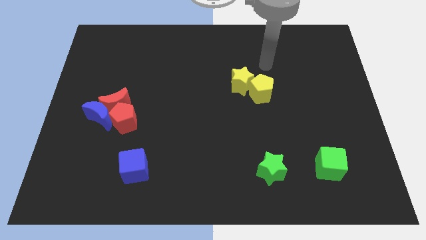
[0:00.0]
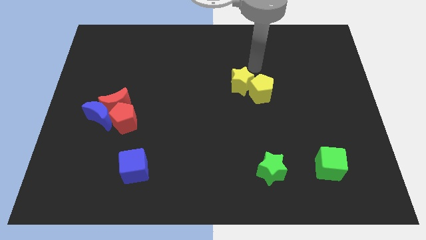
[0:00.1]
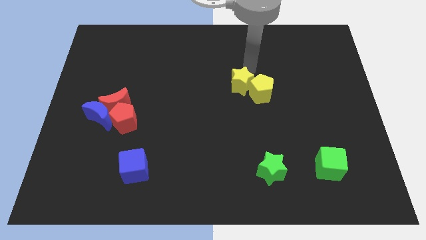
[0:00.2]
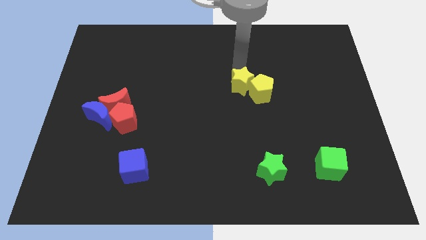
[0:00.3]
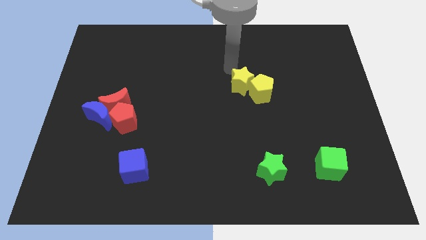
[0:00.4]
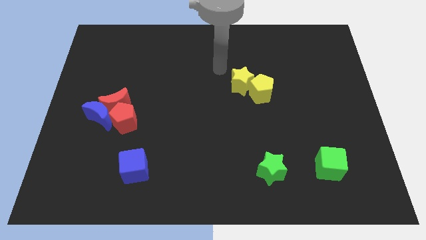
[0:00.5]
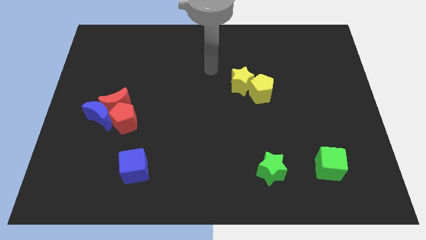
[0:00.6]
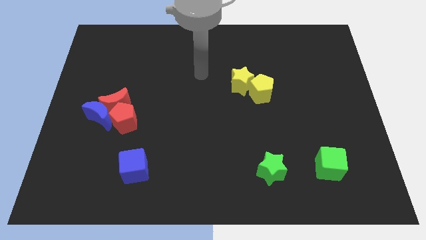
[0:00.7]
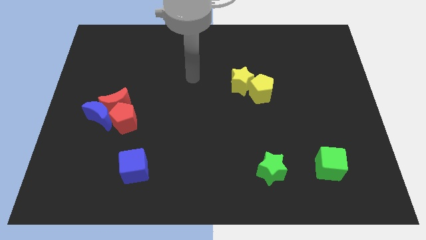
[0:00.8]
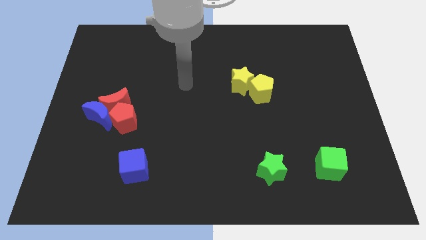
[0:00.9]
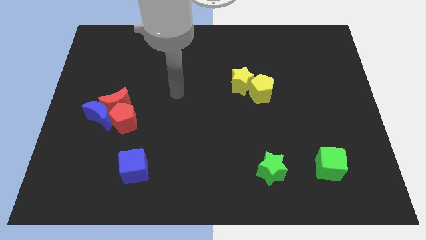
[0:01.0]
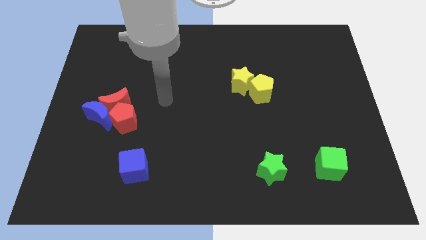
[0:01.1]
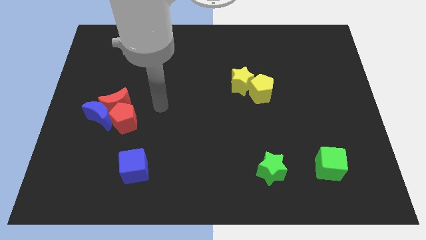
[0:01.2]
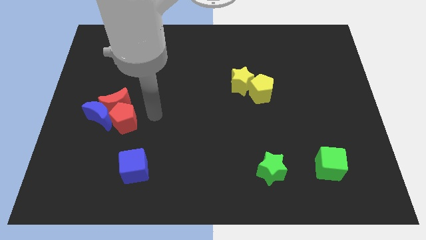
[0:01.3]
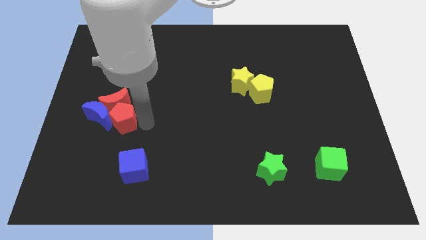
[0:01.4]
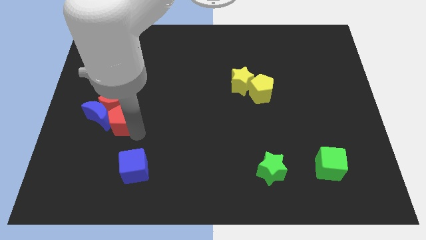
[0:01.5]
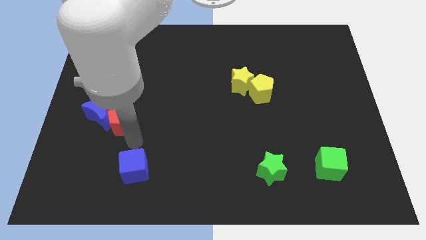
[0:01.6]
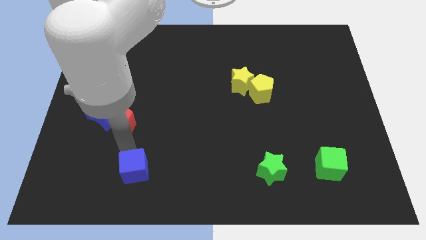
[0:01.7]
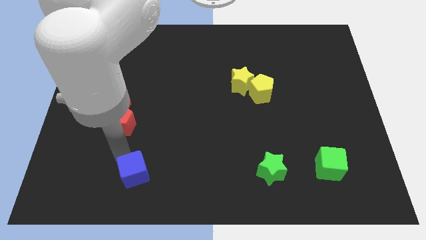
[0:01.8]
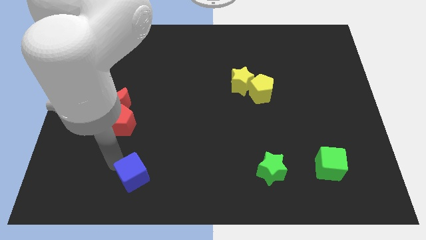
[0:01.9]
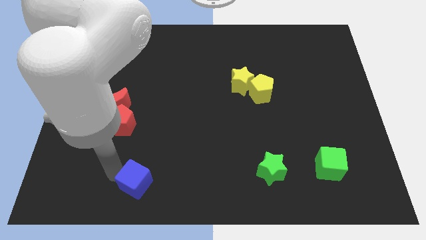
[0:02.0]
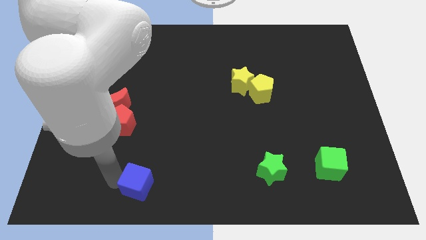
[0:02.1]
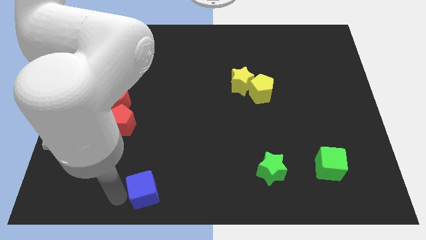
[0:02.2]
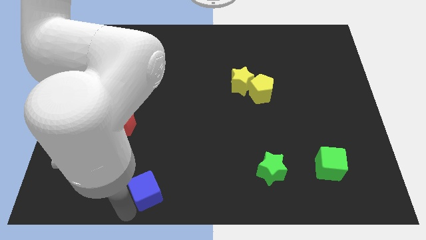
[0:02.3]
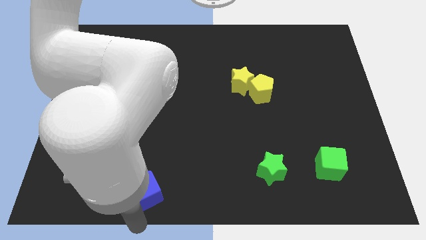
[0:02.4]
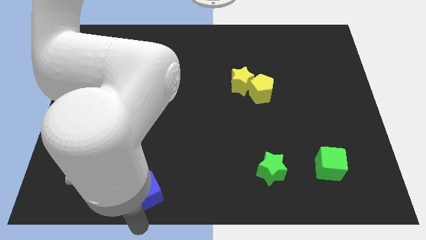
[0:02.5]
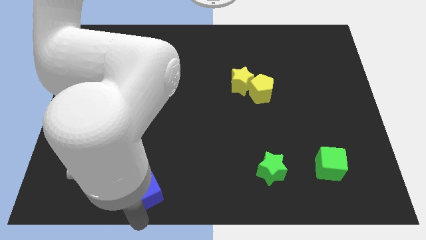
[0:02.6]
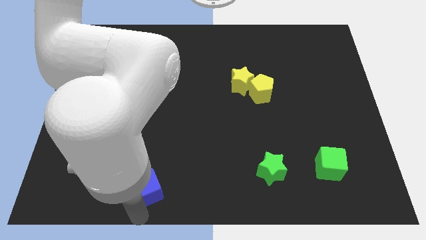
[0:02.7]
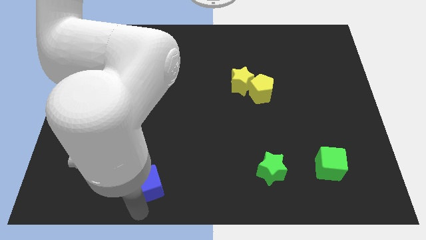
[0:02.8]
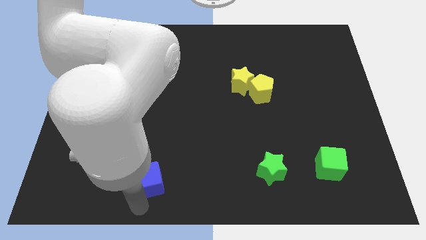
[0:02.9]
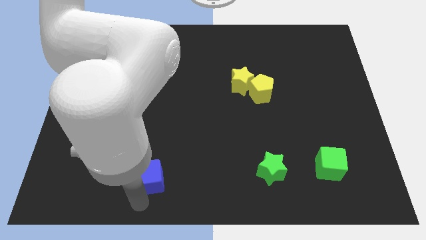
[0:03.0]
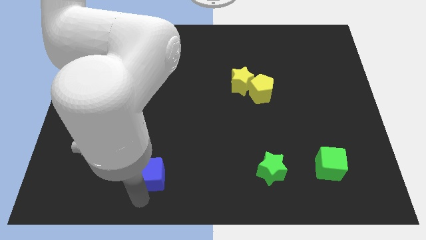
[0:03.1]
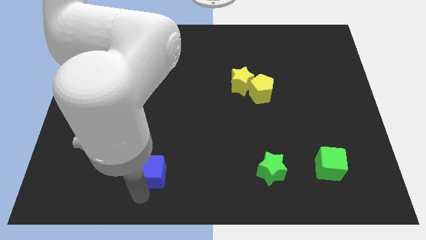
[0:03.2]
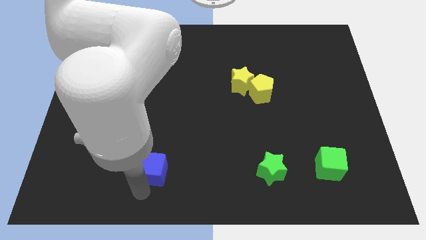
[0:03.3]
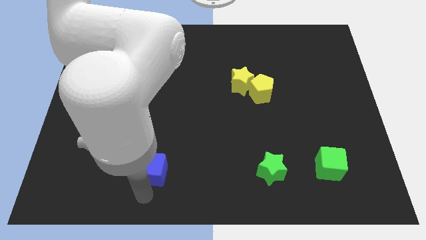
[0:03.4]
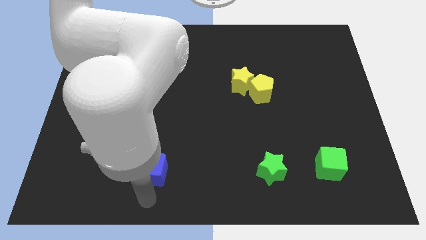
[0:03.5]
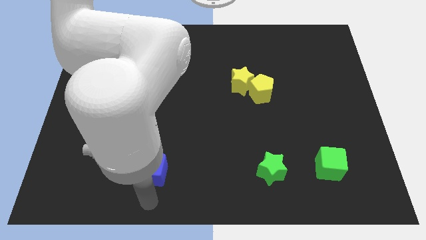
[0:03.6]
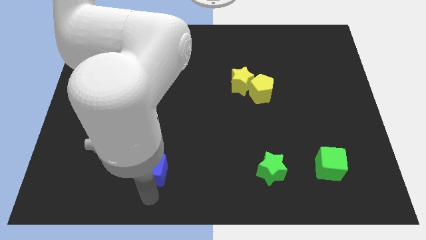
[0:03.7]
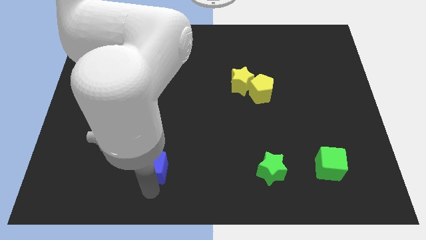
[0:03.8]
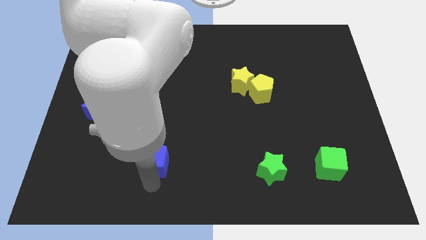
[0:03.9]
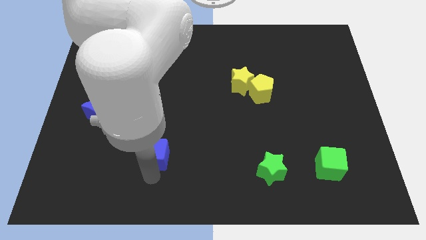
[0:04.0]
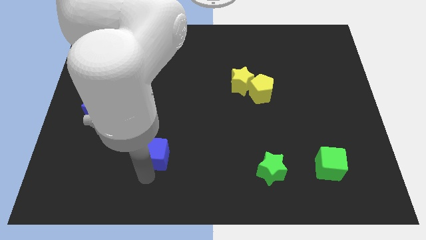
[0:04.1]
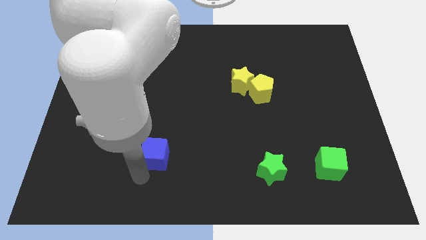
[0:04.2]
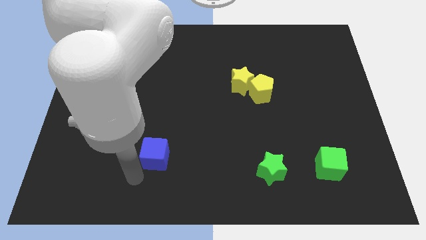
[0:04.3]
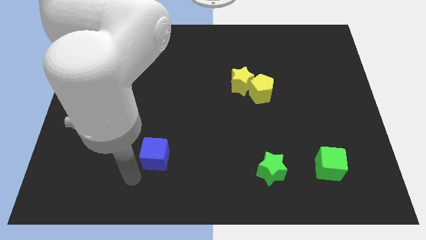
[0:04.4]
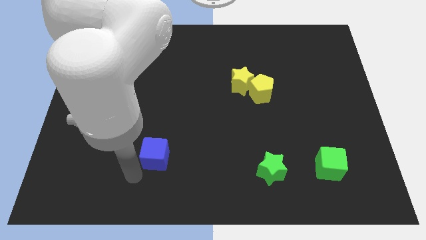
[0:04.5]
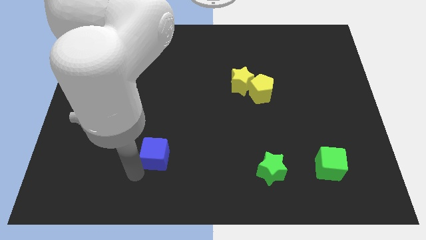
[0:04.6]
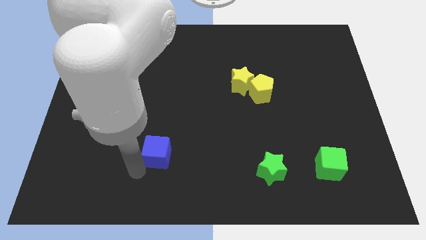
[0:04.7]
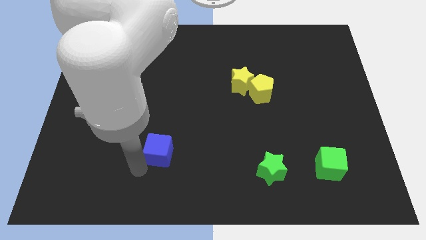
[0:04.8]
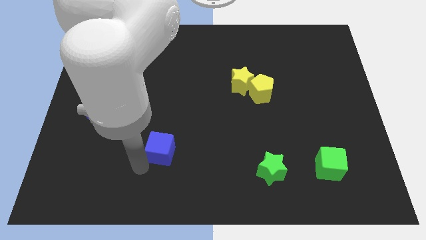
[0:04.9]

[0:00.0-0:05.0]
move the blue cube somewhat up and right

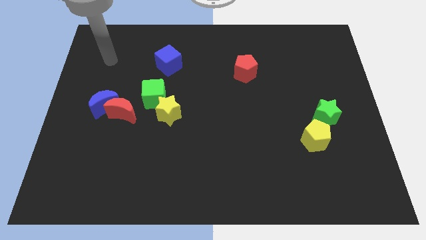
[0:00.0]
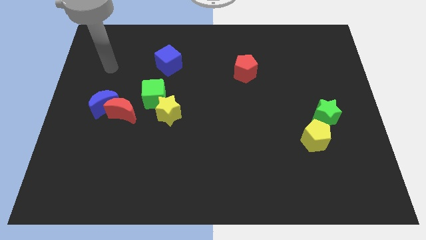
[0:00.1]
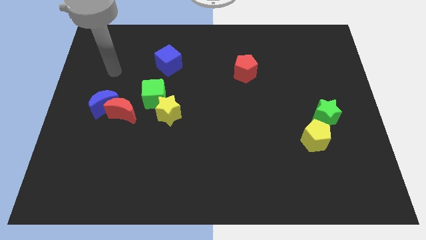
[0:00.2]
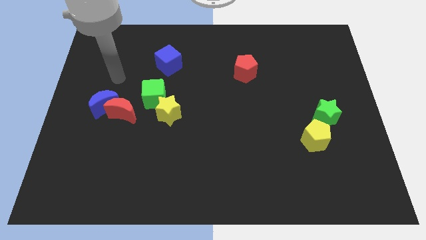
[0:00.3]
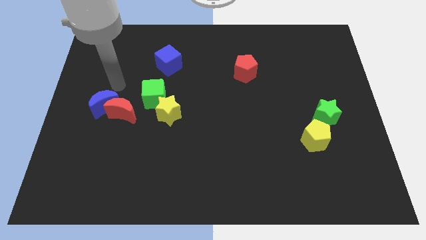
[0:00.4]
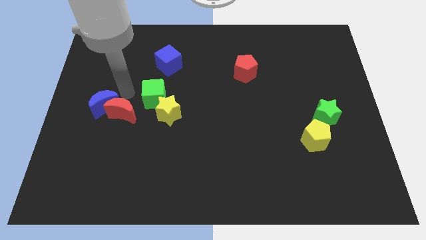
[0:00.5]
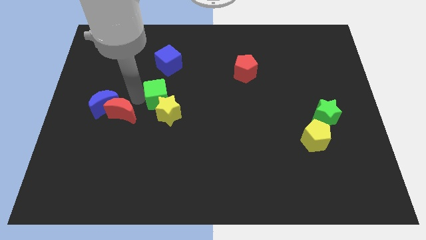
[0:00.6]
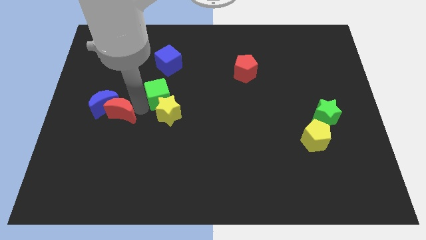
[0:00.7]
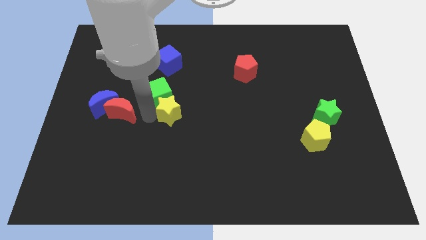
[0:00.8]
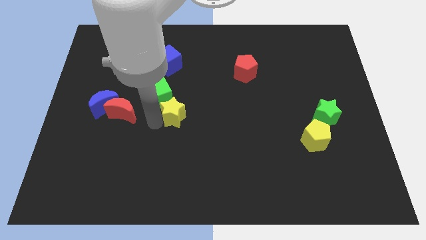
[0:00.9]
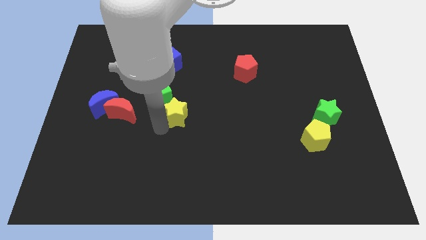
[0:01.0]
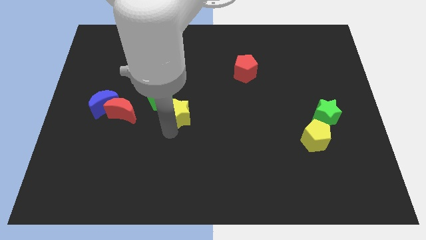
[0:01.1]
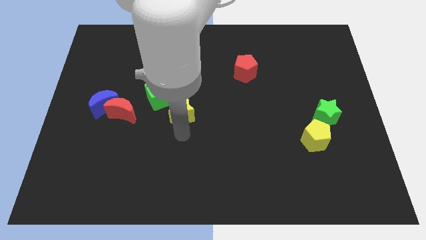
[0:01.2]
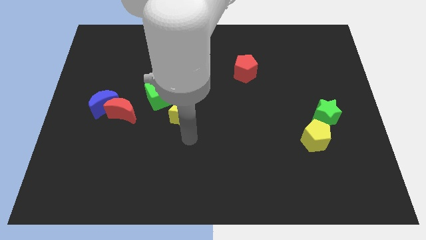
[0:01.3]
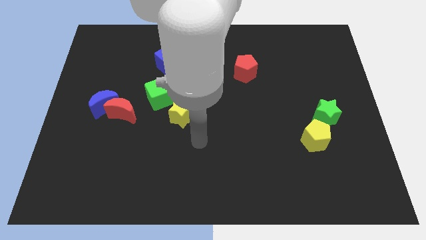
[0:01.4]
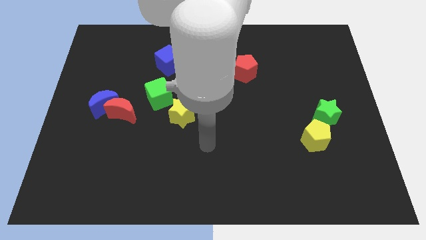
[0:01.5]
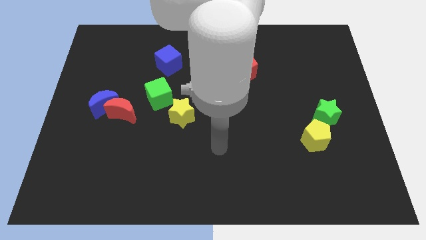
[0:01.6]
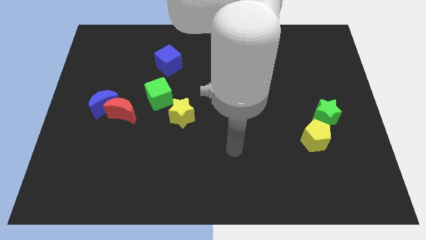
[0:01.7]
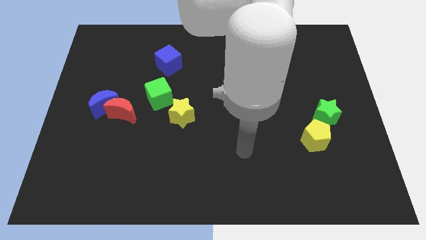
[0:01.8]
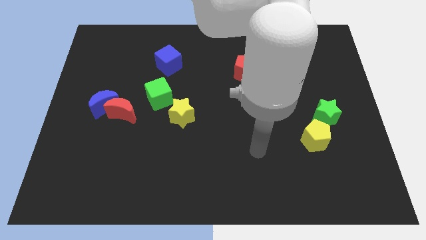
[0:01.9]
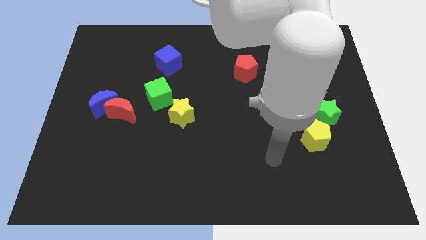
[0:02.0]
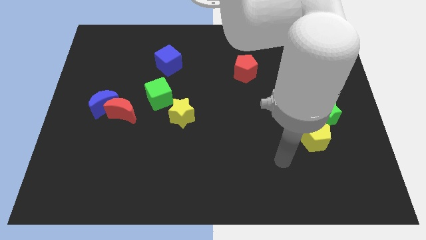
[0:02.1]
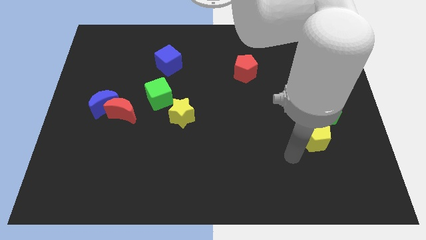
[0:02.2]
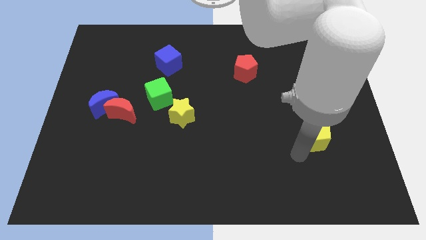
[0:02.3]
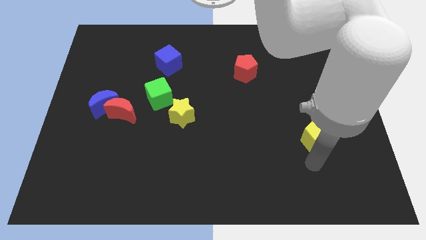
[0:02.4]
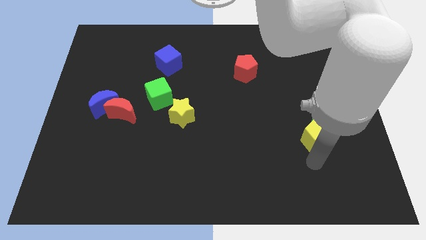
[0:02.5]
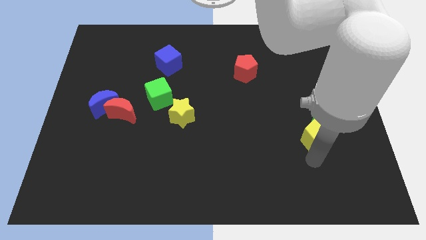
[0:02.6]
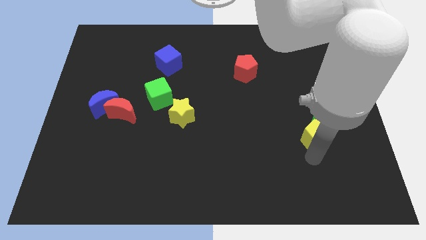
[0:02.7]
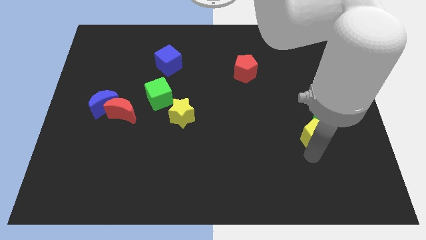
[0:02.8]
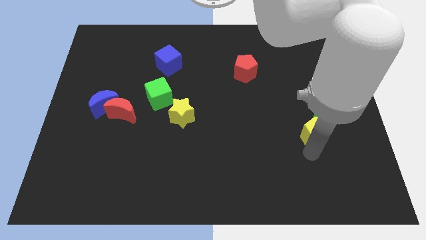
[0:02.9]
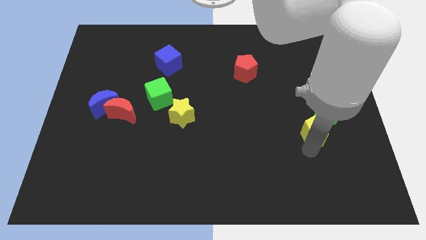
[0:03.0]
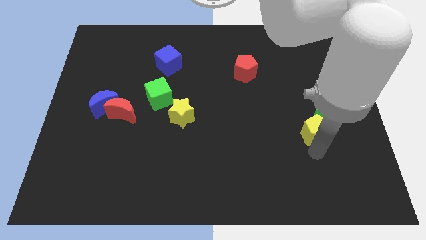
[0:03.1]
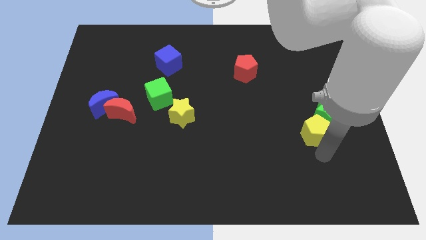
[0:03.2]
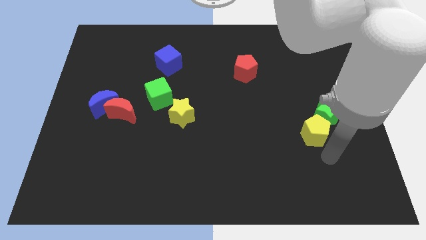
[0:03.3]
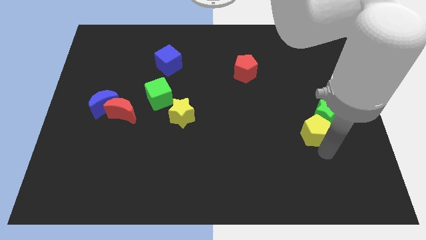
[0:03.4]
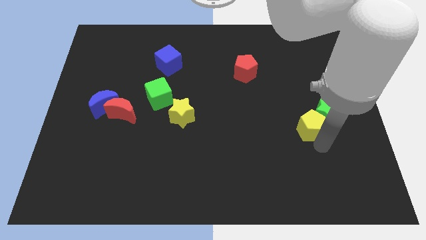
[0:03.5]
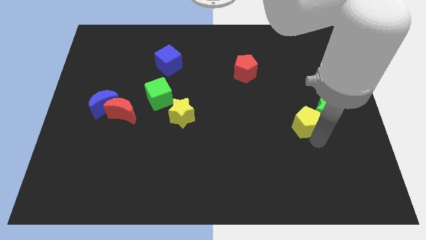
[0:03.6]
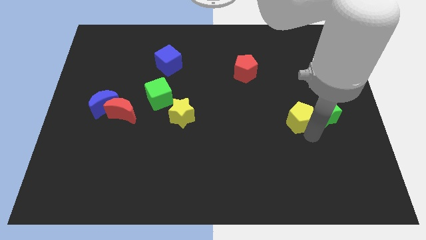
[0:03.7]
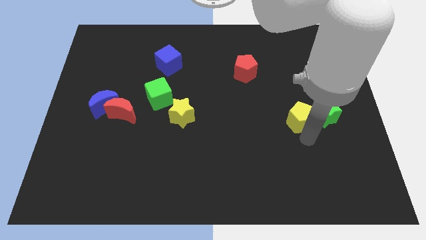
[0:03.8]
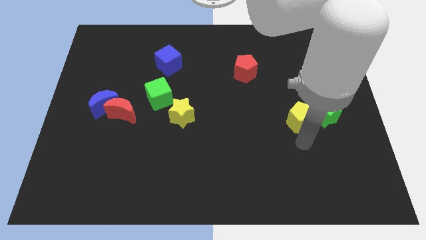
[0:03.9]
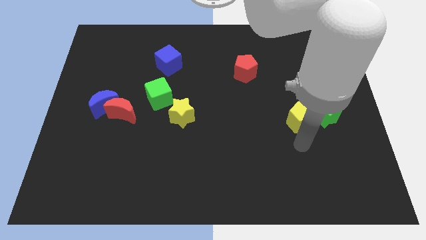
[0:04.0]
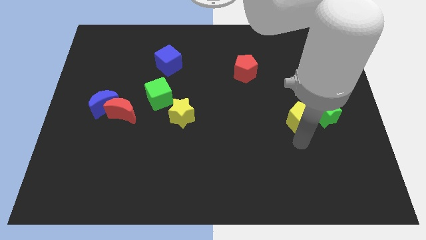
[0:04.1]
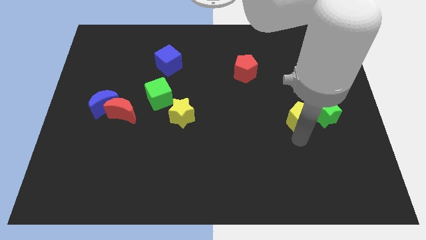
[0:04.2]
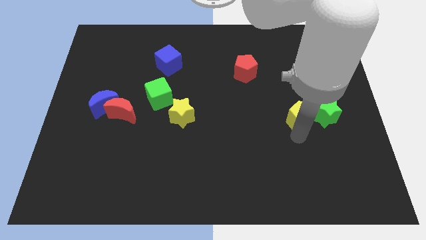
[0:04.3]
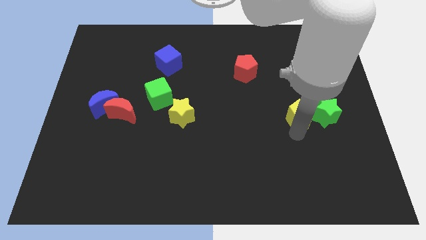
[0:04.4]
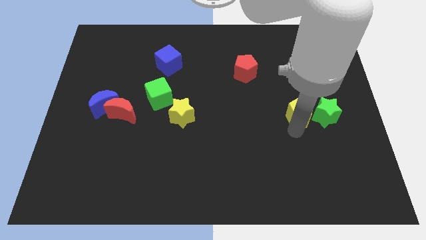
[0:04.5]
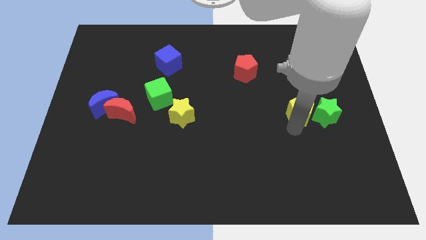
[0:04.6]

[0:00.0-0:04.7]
move the yellow pentagon up somewhat
